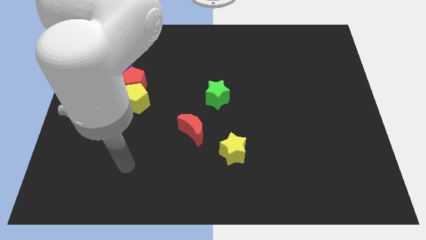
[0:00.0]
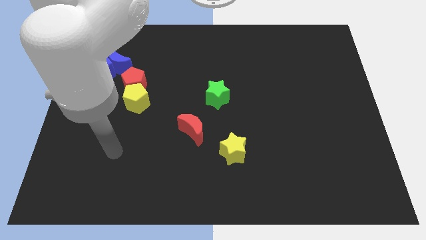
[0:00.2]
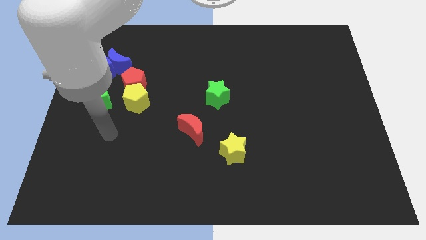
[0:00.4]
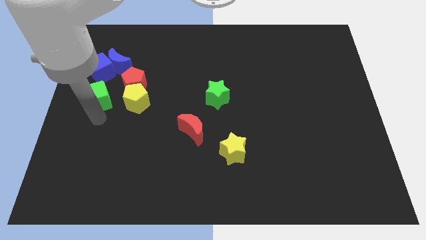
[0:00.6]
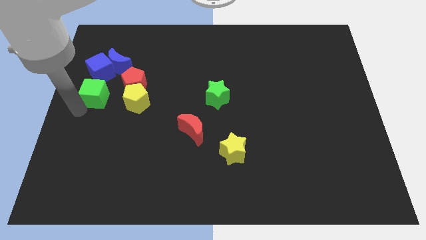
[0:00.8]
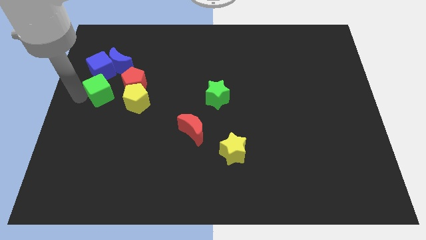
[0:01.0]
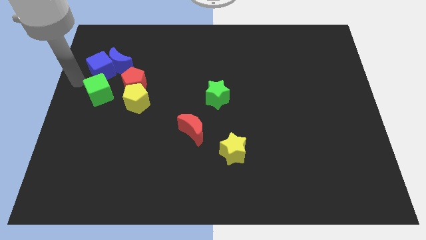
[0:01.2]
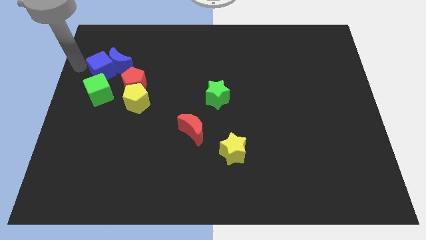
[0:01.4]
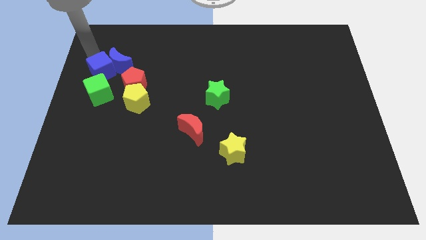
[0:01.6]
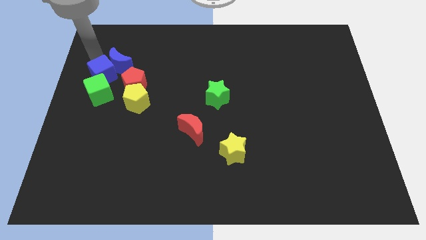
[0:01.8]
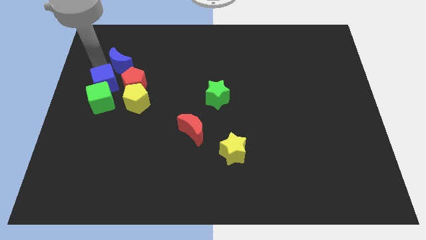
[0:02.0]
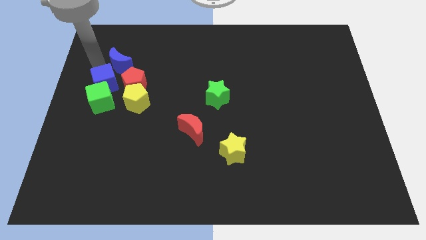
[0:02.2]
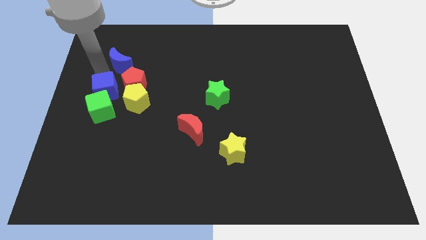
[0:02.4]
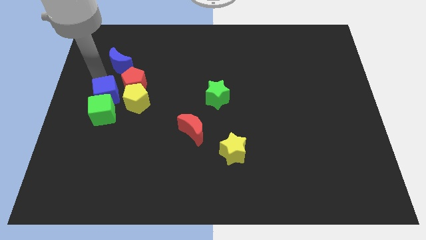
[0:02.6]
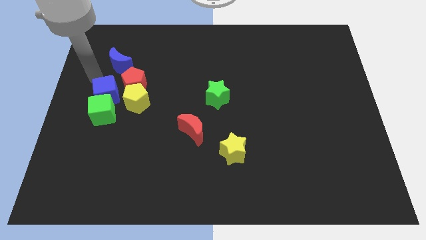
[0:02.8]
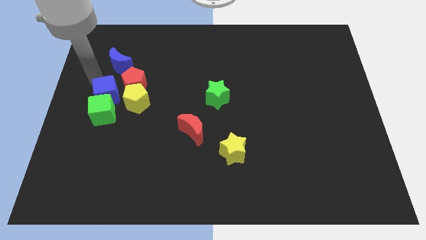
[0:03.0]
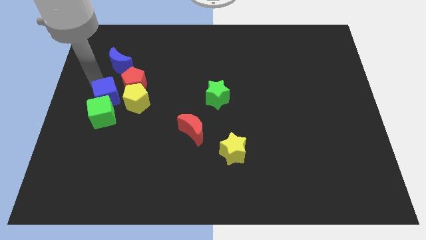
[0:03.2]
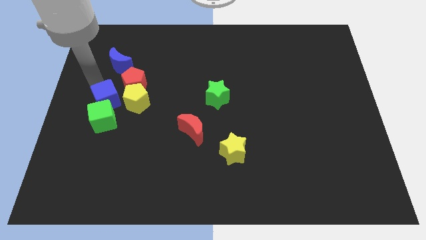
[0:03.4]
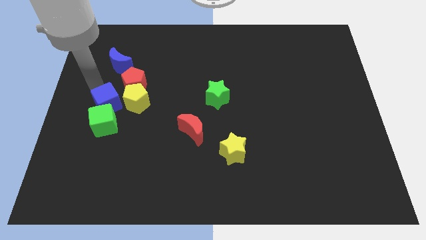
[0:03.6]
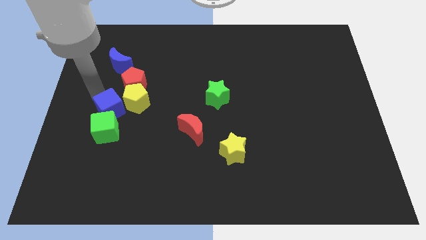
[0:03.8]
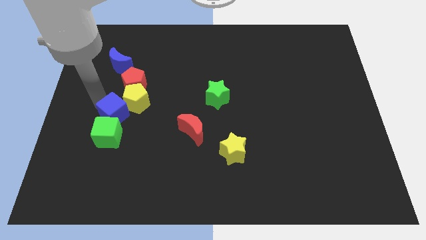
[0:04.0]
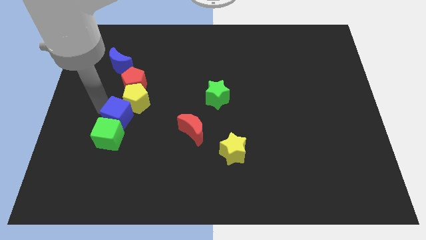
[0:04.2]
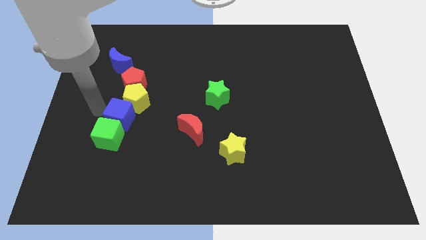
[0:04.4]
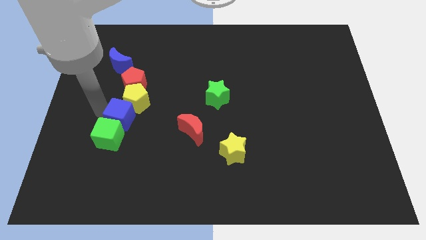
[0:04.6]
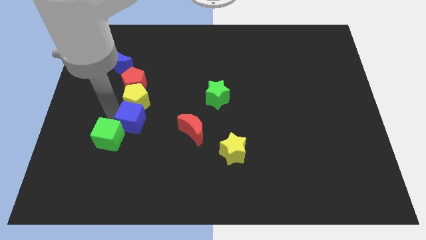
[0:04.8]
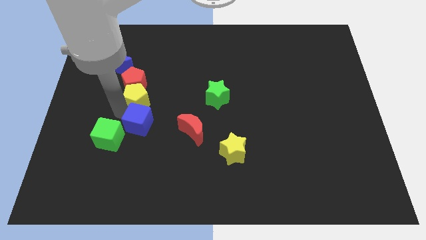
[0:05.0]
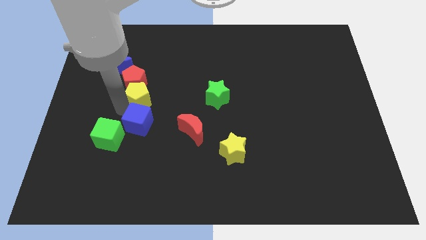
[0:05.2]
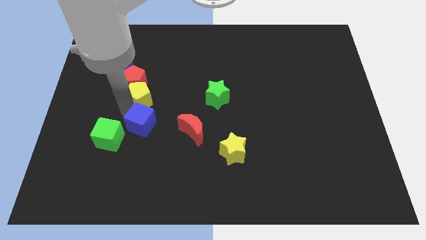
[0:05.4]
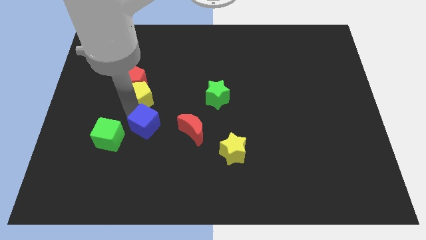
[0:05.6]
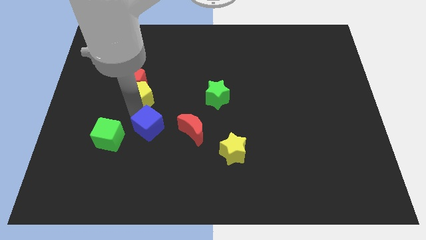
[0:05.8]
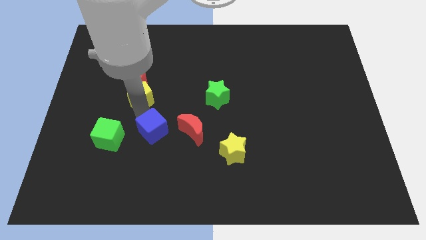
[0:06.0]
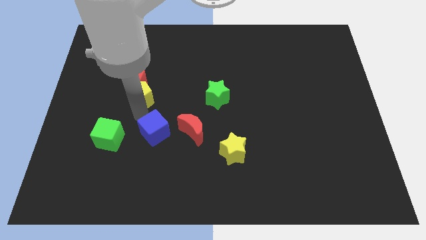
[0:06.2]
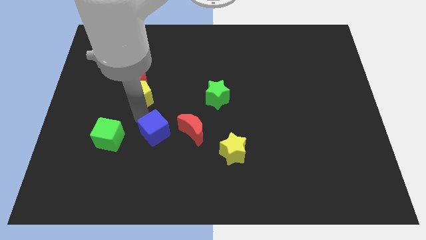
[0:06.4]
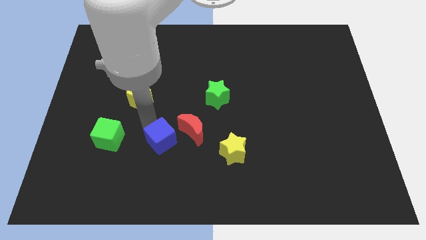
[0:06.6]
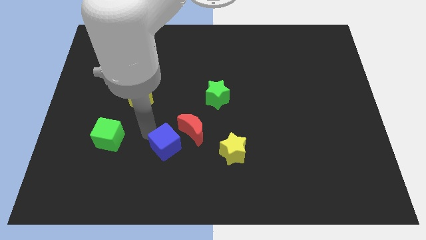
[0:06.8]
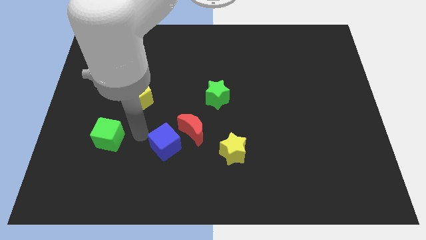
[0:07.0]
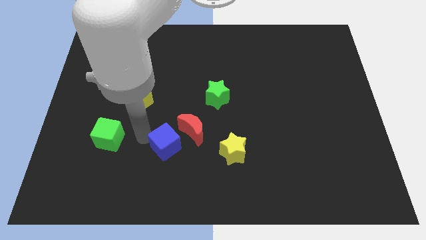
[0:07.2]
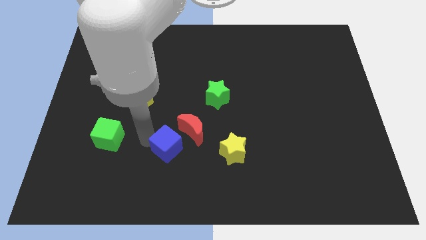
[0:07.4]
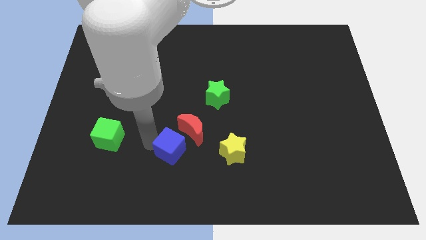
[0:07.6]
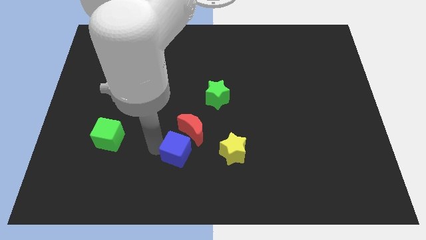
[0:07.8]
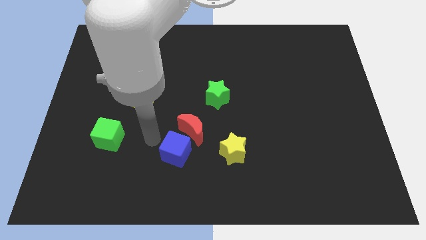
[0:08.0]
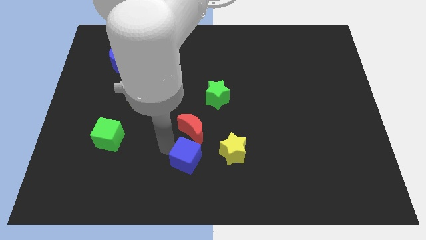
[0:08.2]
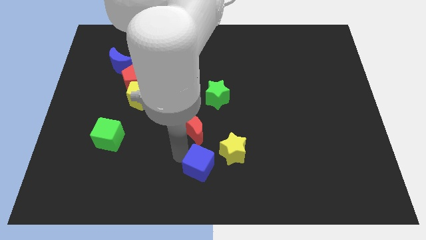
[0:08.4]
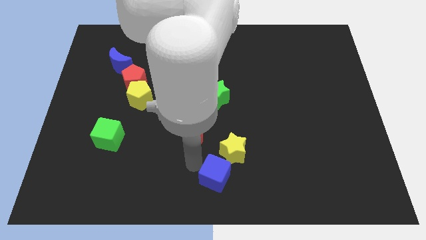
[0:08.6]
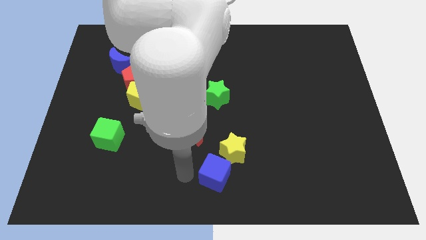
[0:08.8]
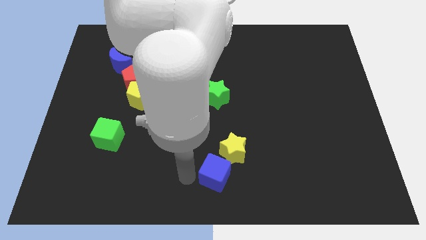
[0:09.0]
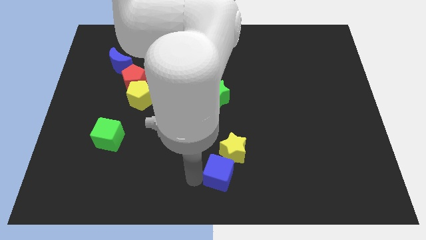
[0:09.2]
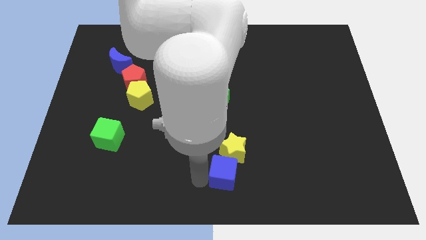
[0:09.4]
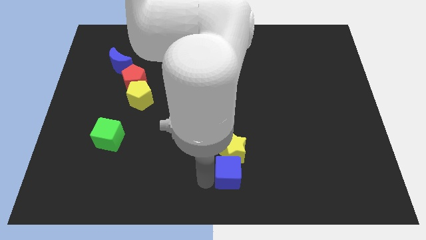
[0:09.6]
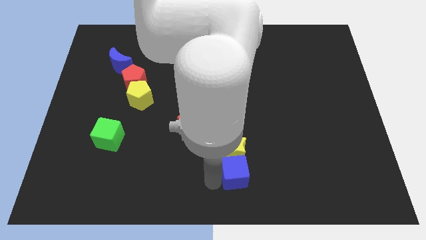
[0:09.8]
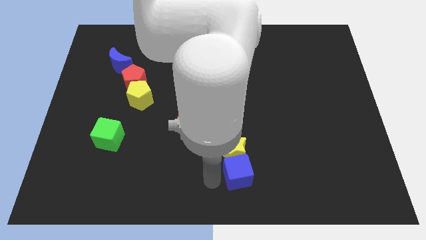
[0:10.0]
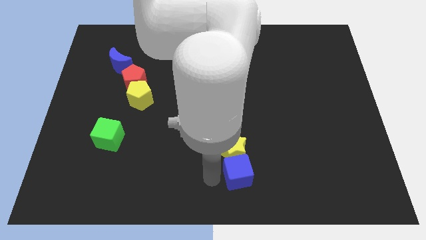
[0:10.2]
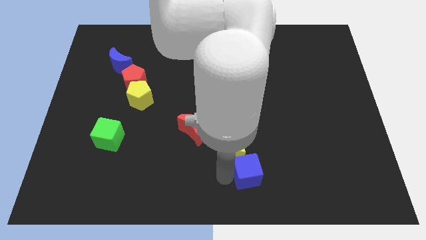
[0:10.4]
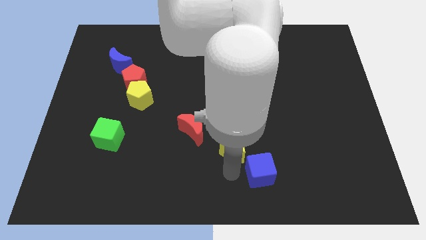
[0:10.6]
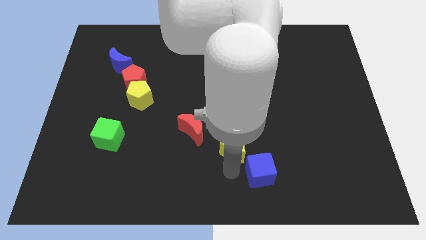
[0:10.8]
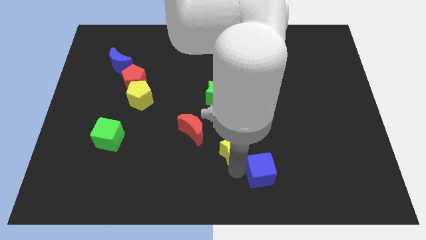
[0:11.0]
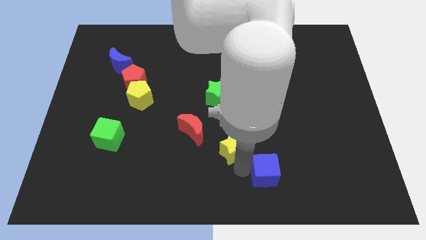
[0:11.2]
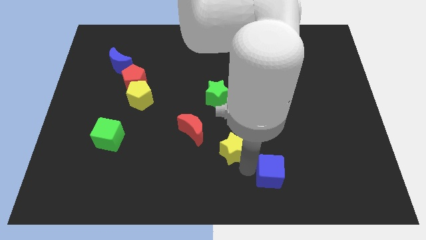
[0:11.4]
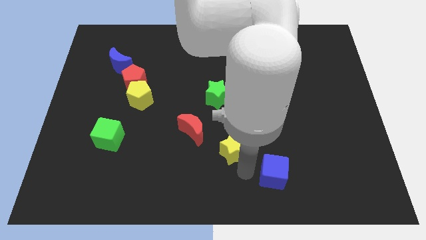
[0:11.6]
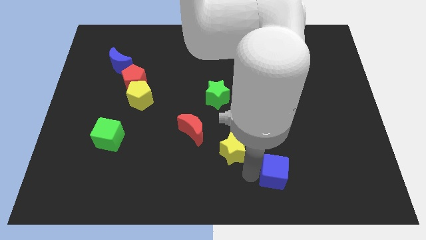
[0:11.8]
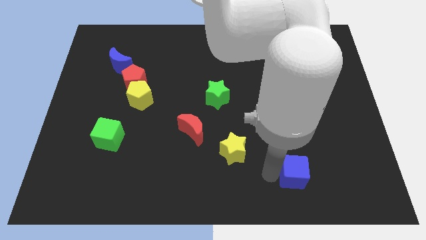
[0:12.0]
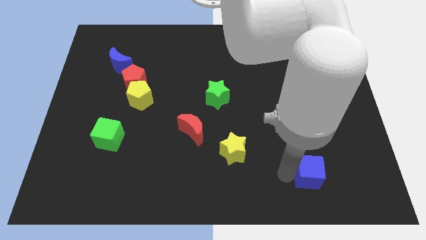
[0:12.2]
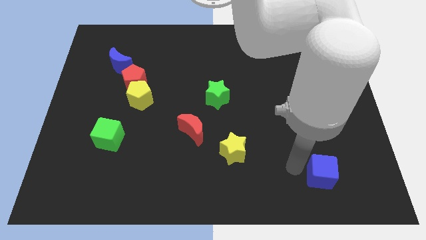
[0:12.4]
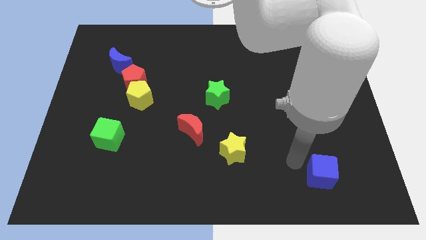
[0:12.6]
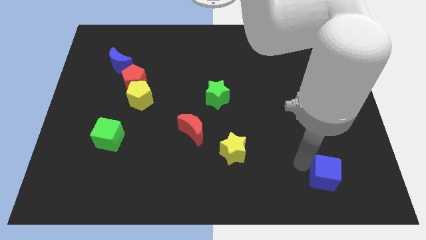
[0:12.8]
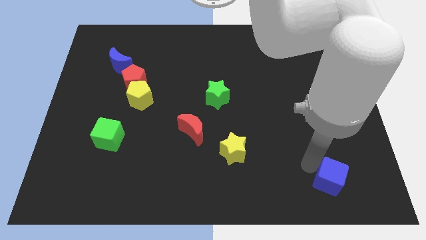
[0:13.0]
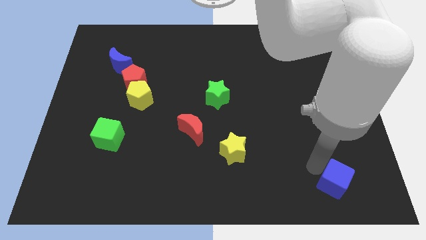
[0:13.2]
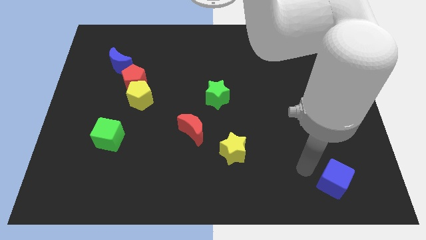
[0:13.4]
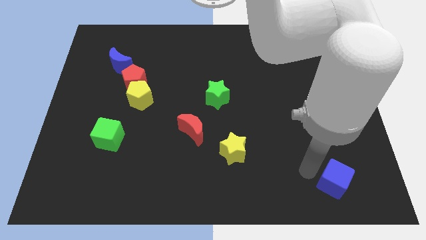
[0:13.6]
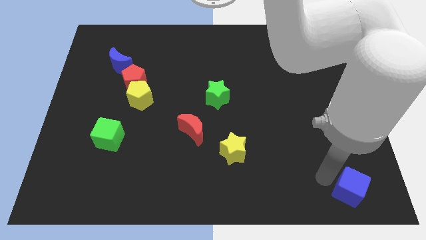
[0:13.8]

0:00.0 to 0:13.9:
slide the blue cube to the lower right corner
